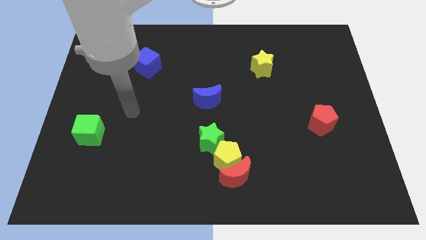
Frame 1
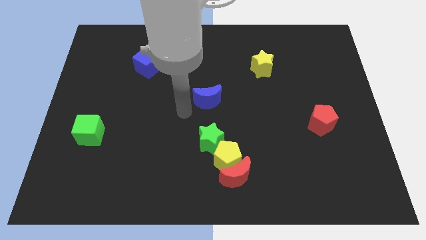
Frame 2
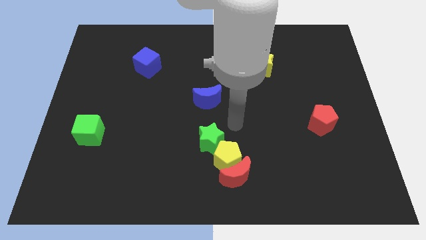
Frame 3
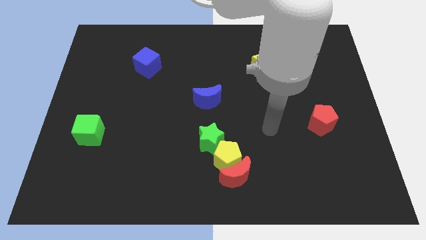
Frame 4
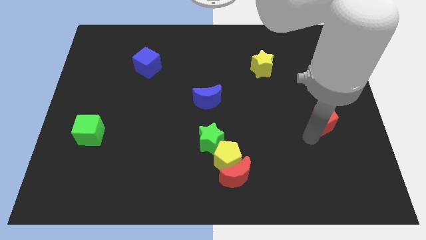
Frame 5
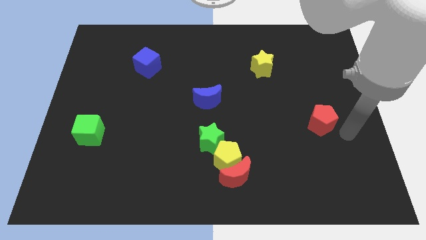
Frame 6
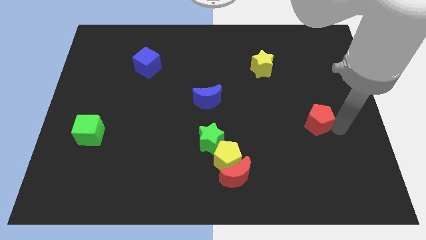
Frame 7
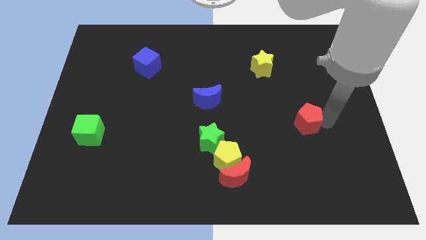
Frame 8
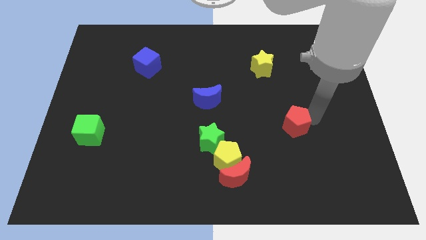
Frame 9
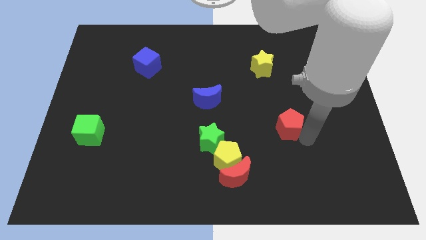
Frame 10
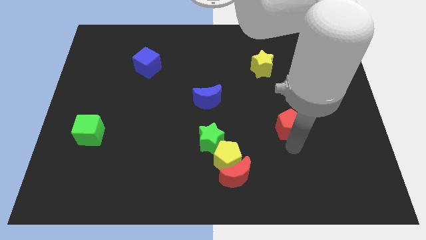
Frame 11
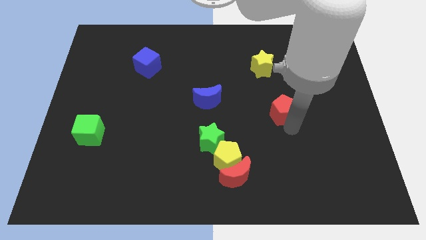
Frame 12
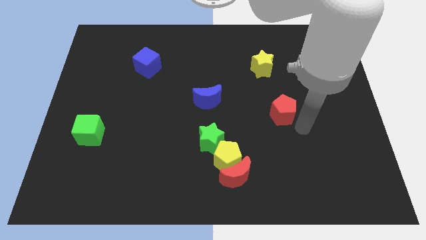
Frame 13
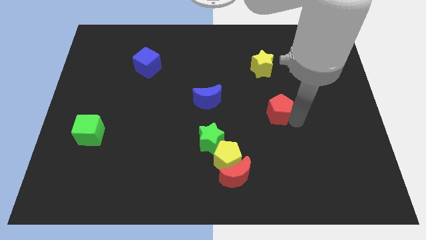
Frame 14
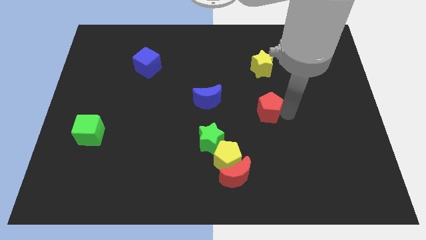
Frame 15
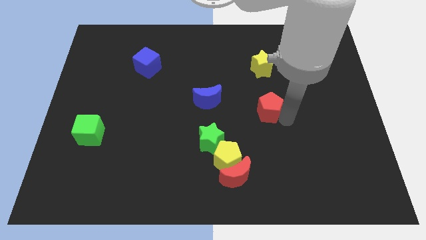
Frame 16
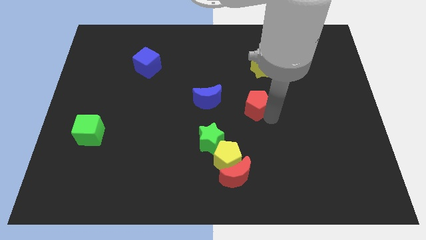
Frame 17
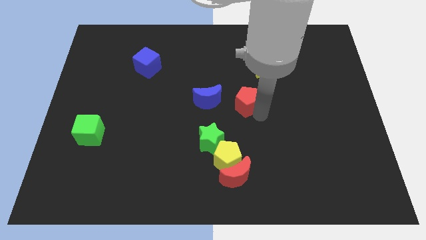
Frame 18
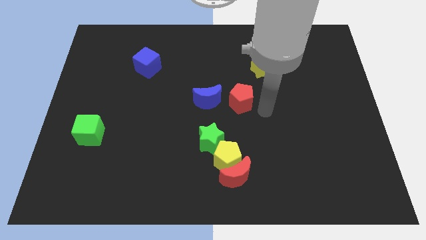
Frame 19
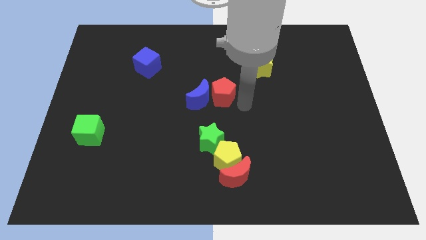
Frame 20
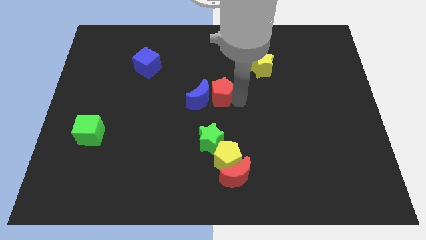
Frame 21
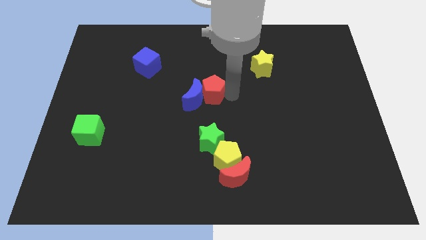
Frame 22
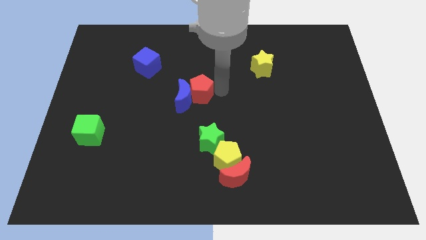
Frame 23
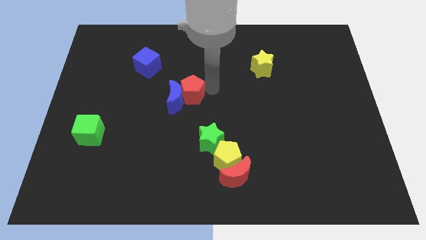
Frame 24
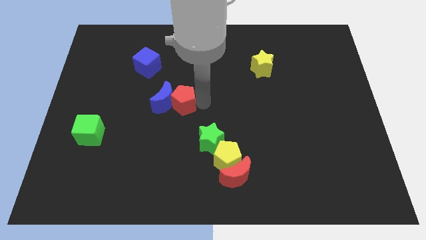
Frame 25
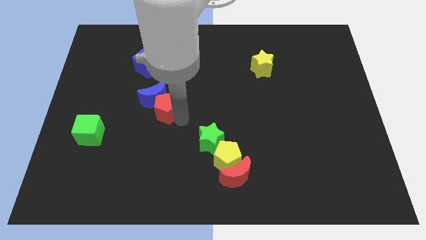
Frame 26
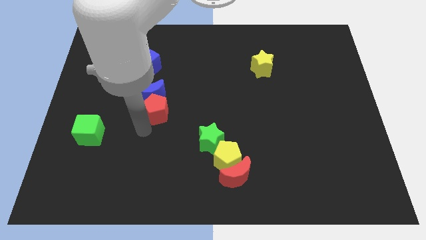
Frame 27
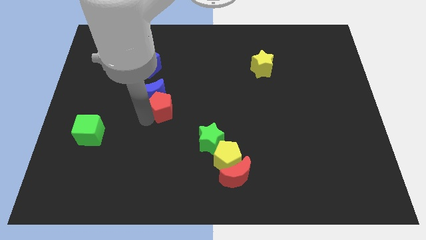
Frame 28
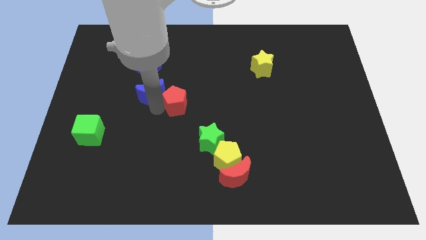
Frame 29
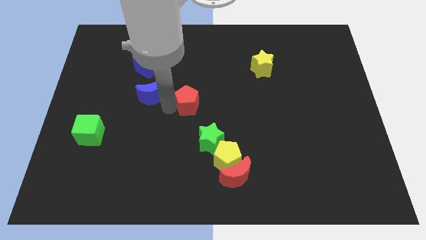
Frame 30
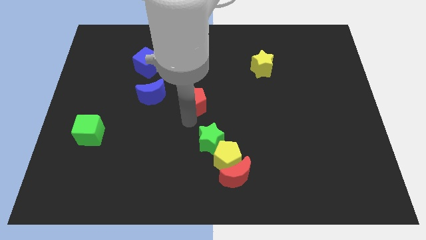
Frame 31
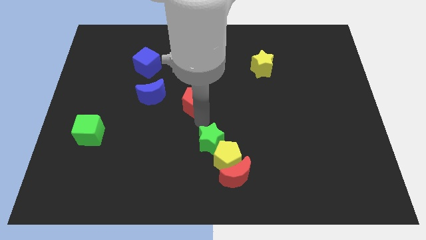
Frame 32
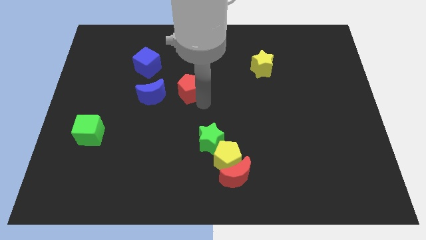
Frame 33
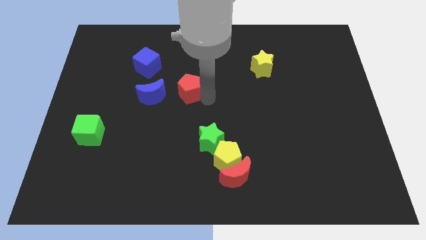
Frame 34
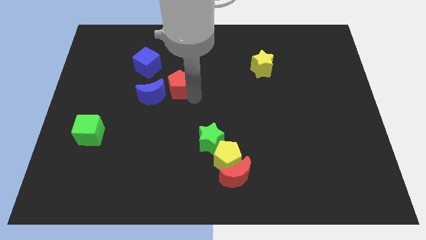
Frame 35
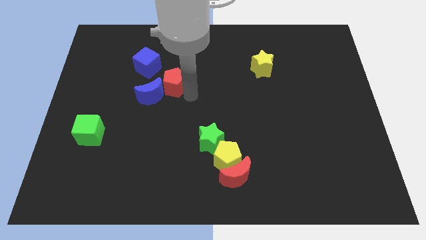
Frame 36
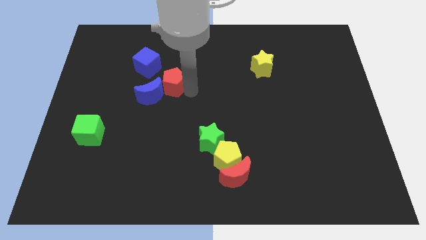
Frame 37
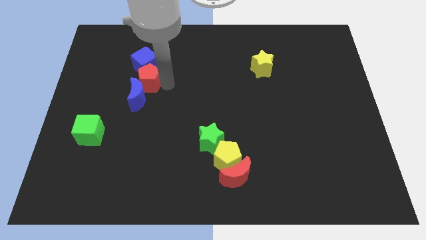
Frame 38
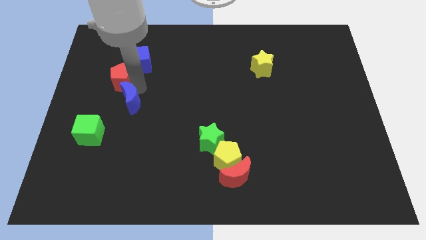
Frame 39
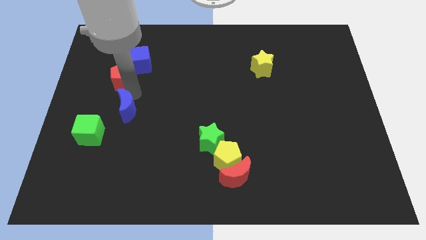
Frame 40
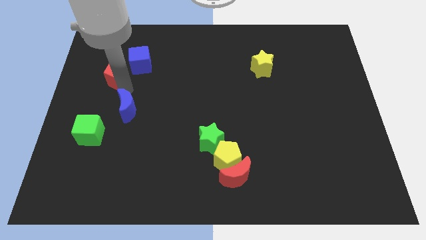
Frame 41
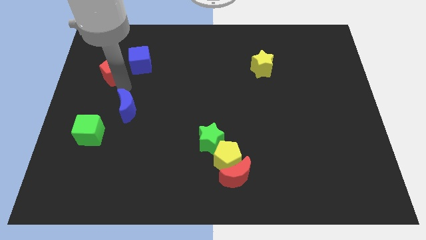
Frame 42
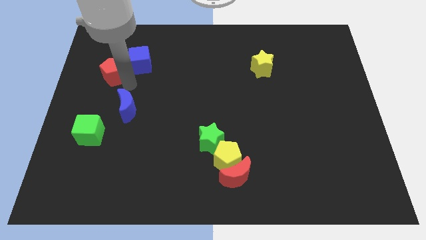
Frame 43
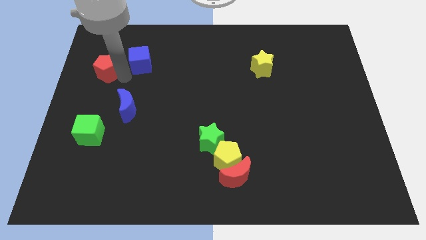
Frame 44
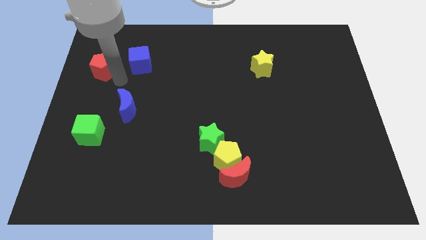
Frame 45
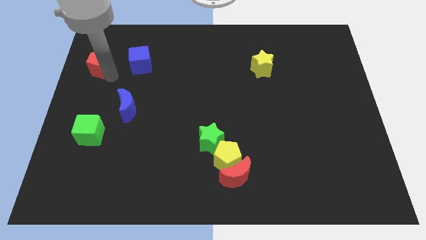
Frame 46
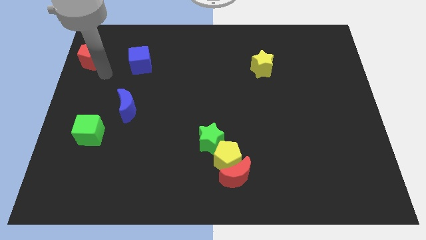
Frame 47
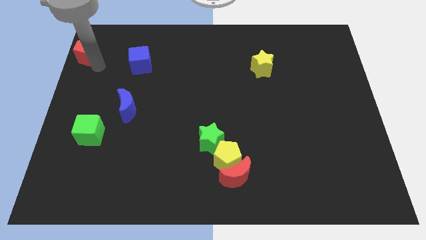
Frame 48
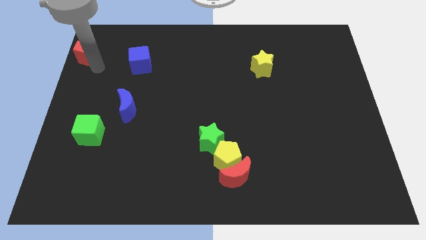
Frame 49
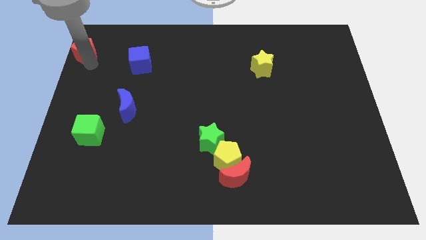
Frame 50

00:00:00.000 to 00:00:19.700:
put the red pentagon to the upper left corner
